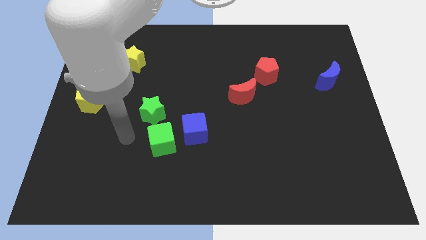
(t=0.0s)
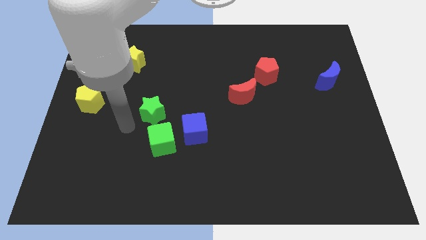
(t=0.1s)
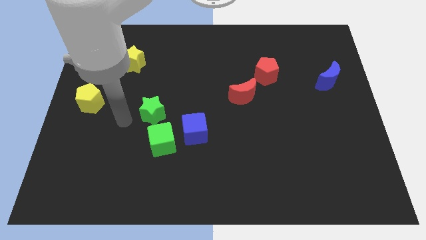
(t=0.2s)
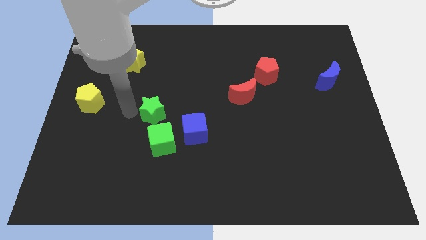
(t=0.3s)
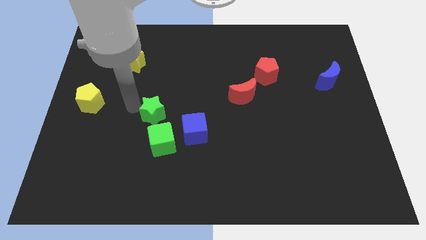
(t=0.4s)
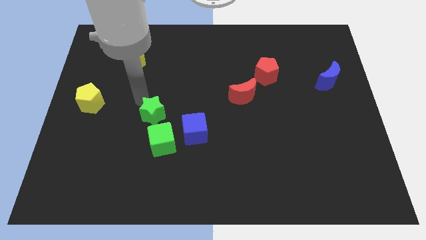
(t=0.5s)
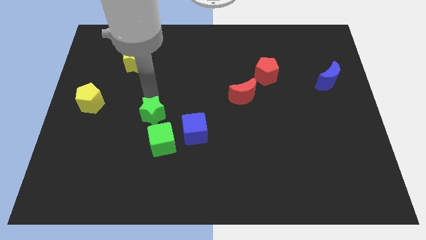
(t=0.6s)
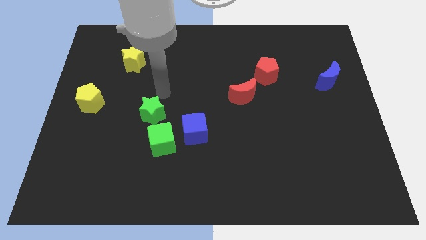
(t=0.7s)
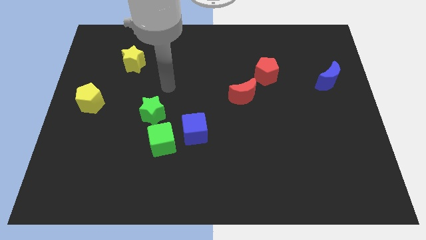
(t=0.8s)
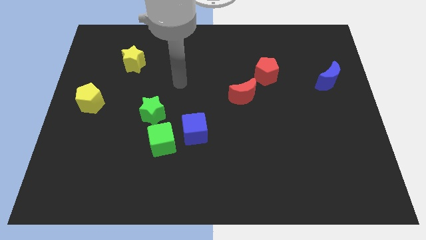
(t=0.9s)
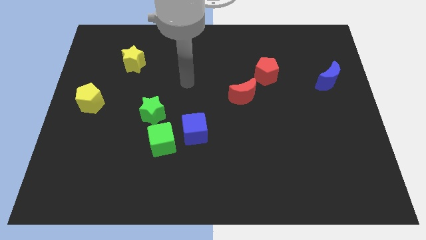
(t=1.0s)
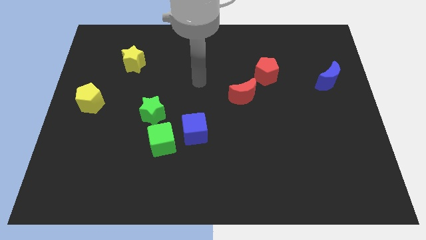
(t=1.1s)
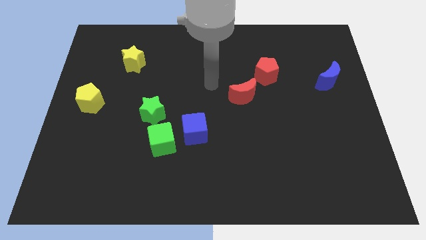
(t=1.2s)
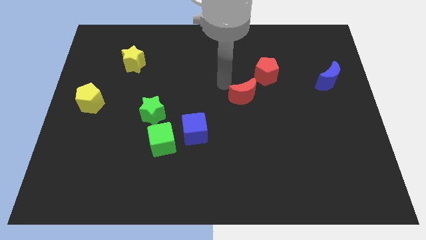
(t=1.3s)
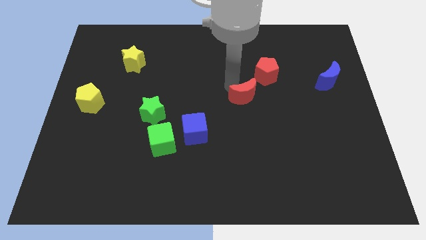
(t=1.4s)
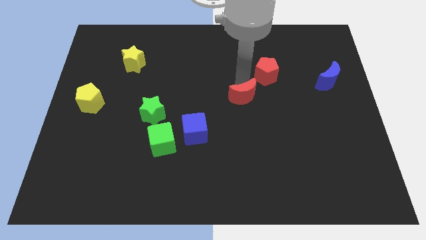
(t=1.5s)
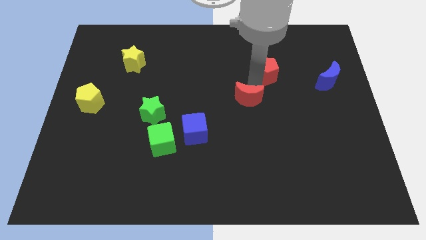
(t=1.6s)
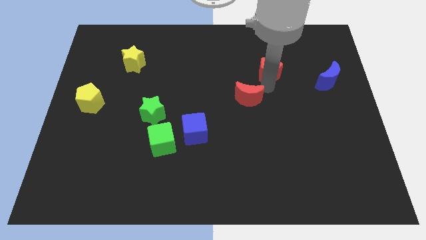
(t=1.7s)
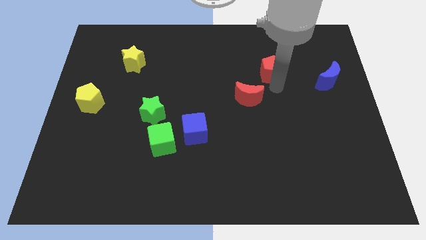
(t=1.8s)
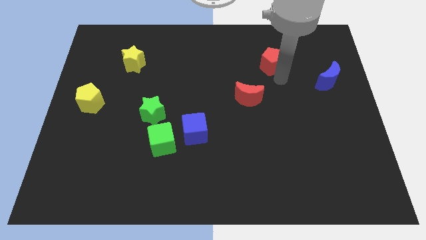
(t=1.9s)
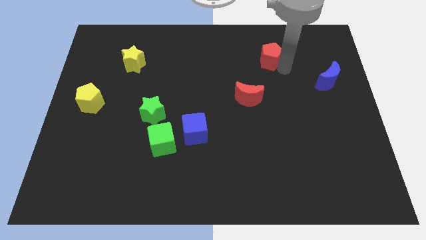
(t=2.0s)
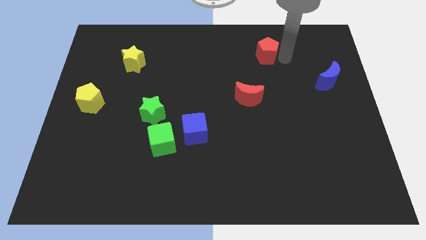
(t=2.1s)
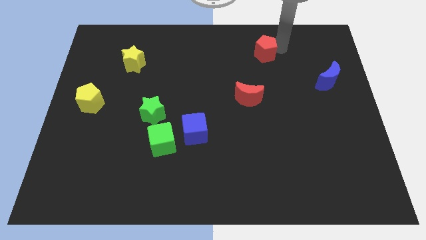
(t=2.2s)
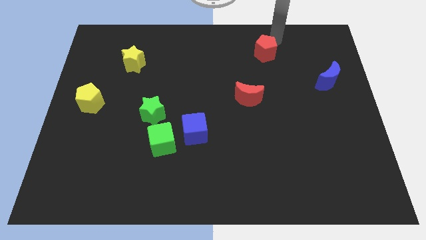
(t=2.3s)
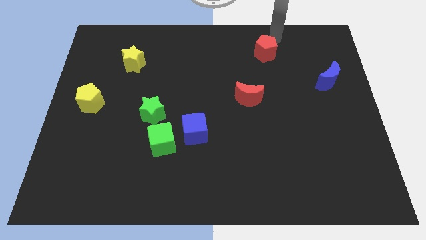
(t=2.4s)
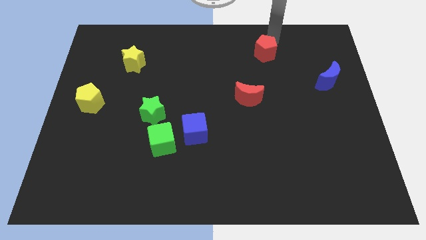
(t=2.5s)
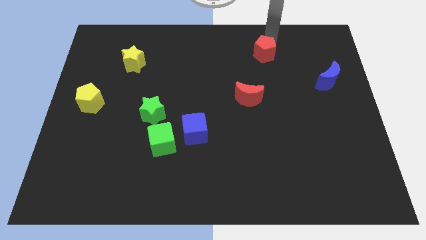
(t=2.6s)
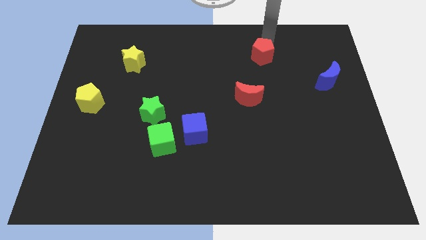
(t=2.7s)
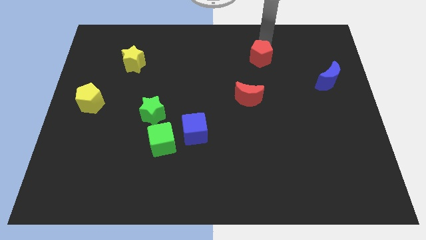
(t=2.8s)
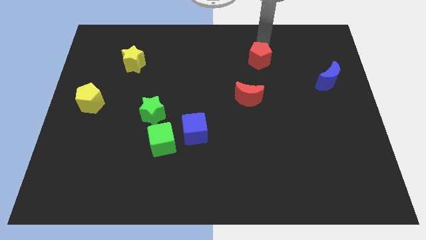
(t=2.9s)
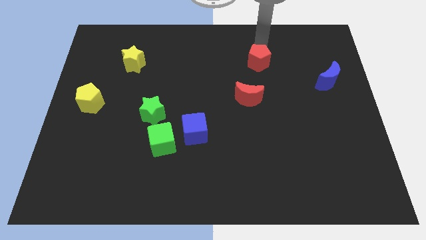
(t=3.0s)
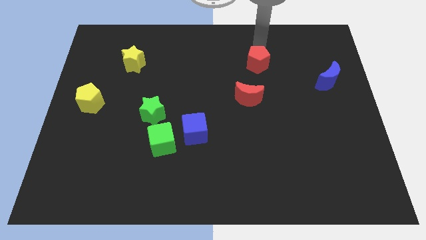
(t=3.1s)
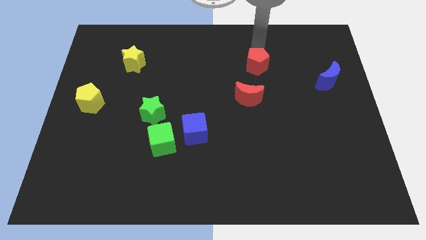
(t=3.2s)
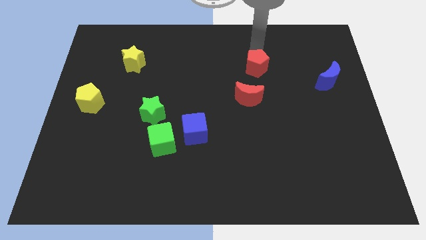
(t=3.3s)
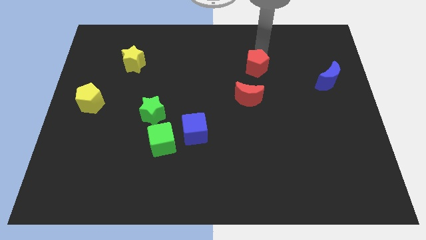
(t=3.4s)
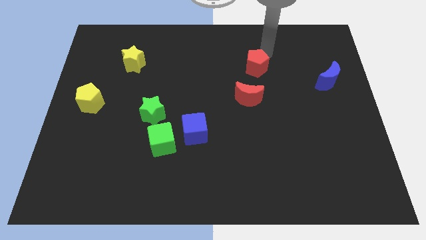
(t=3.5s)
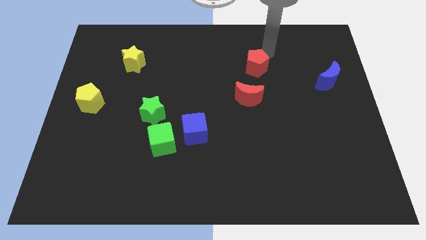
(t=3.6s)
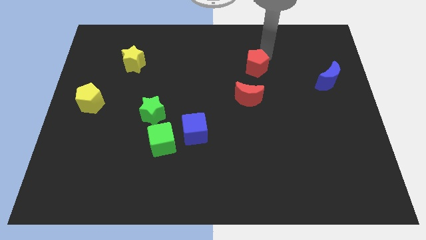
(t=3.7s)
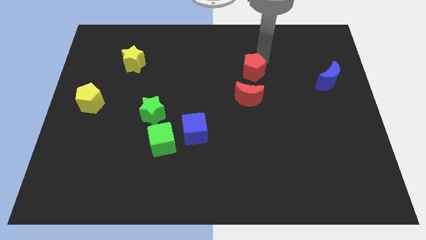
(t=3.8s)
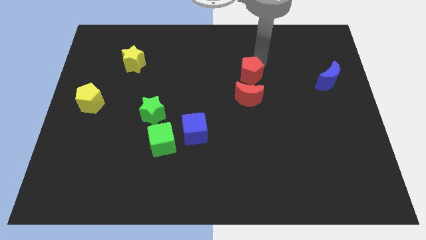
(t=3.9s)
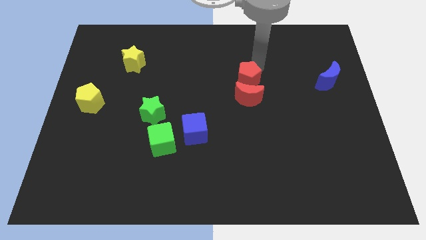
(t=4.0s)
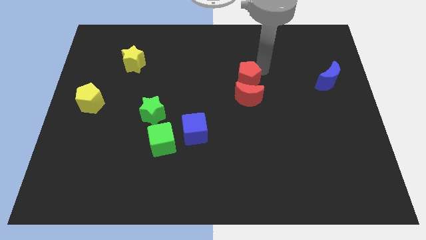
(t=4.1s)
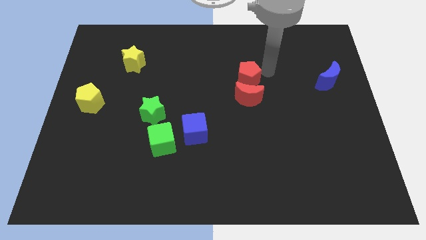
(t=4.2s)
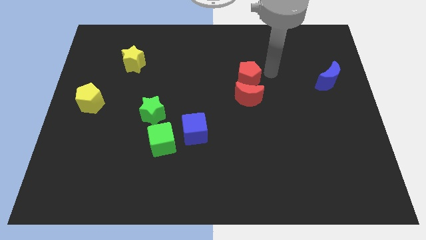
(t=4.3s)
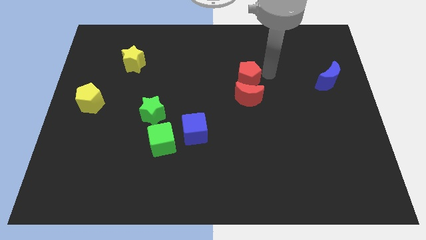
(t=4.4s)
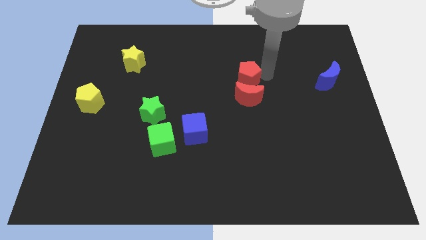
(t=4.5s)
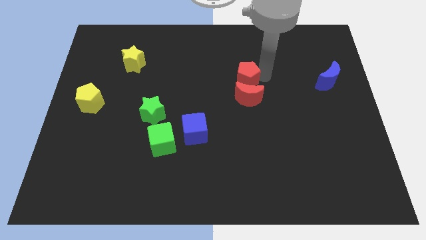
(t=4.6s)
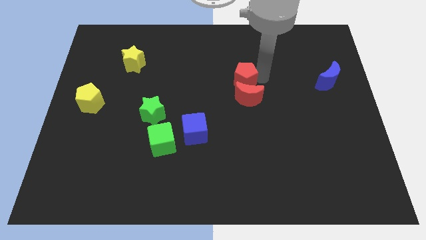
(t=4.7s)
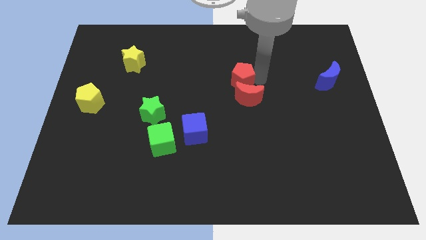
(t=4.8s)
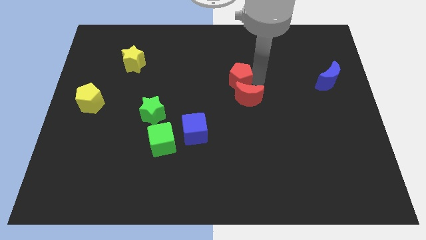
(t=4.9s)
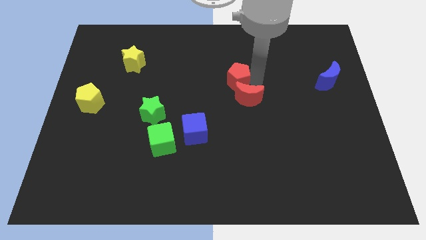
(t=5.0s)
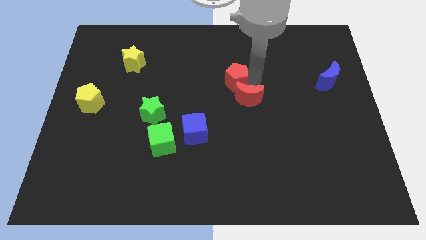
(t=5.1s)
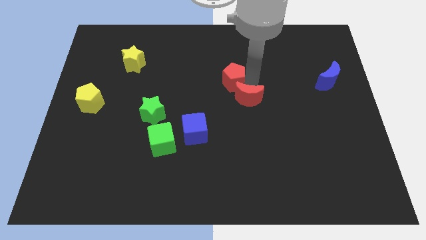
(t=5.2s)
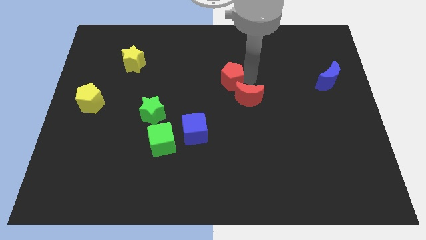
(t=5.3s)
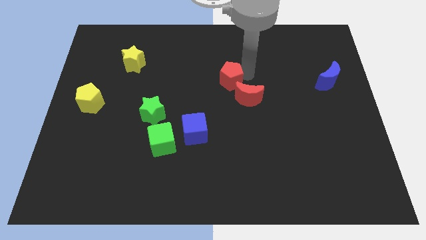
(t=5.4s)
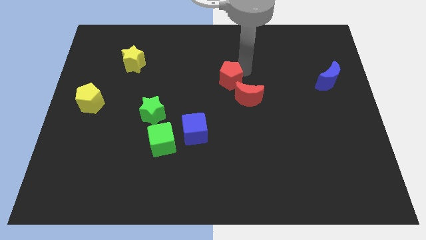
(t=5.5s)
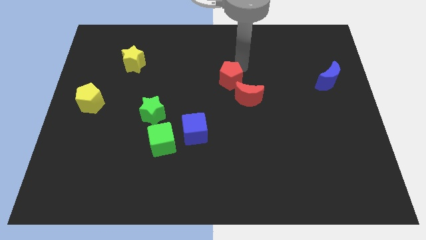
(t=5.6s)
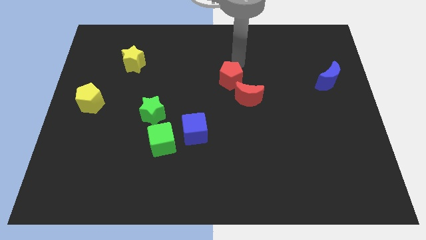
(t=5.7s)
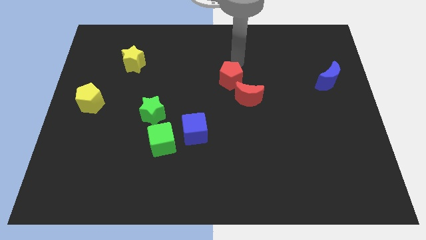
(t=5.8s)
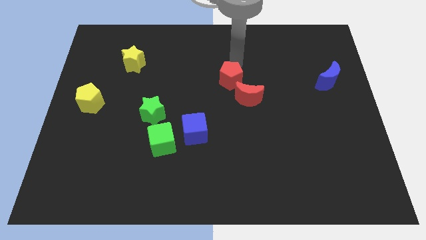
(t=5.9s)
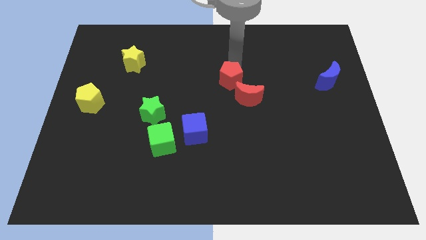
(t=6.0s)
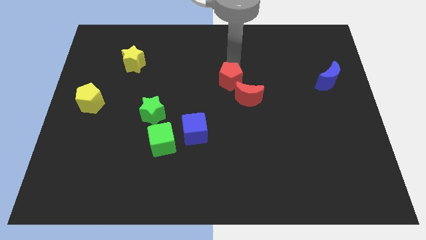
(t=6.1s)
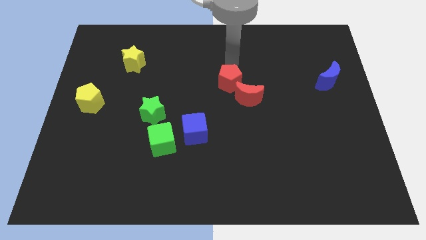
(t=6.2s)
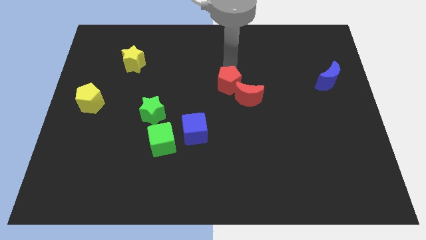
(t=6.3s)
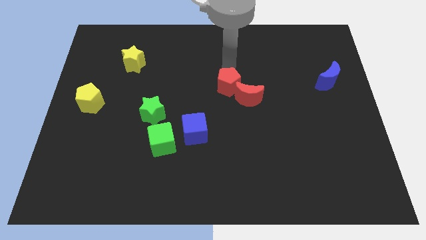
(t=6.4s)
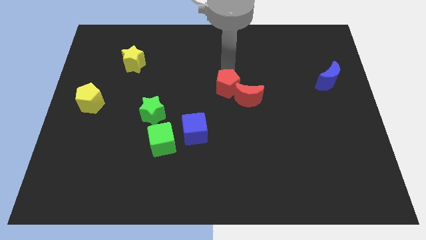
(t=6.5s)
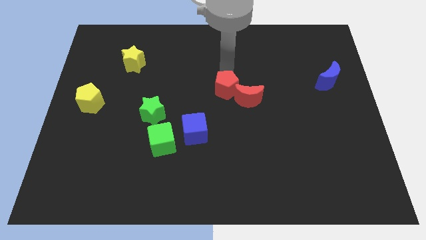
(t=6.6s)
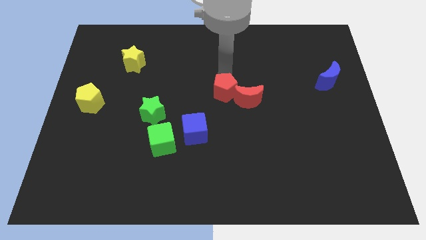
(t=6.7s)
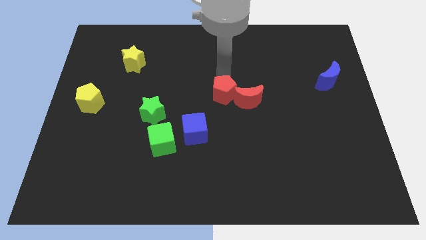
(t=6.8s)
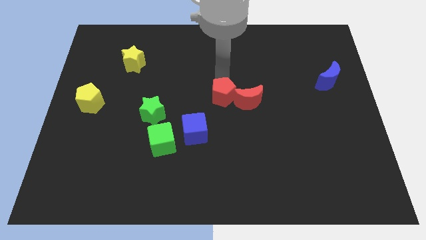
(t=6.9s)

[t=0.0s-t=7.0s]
slide the red pentagon diagonally up and to the right of the blue cube
